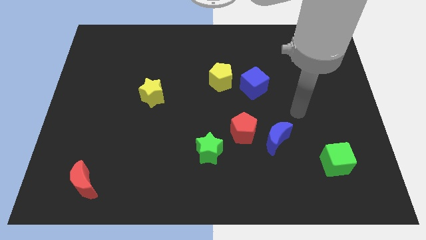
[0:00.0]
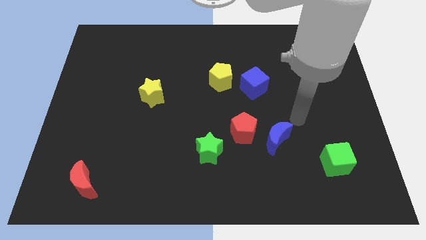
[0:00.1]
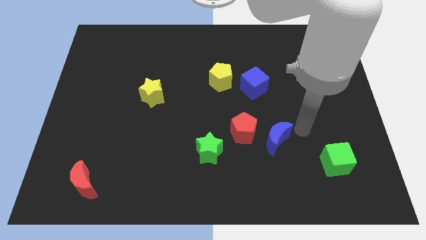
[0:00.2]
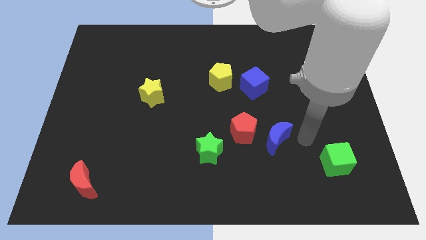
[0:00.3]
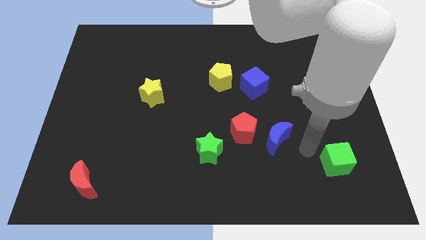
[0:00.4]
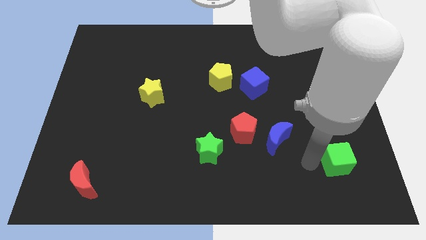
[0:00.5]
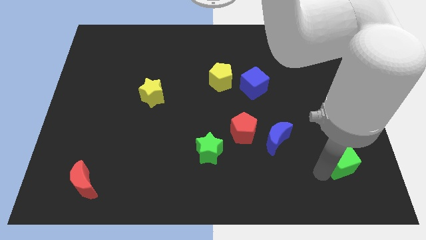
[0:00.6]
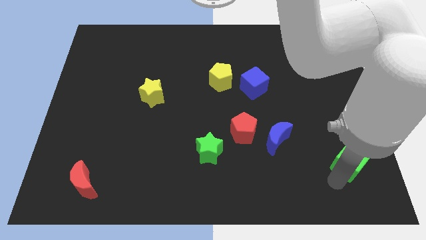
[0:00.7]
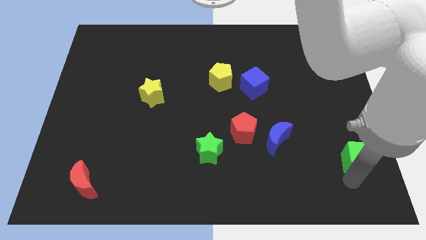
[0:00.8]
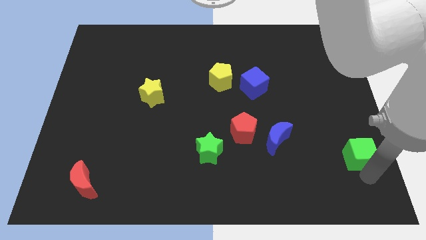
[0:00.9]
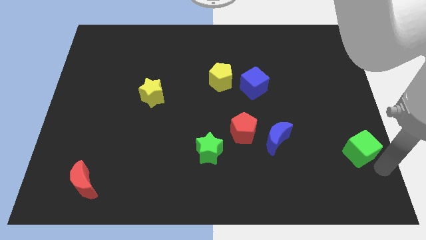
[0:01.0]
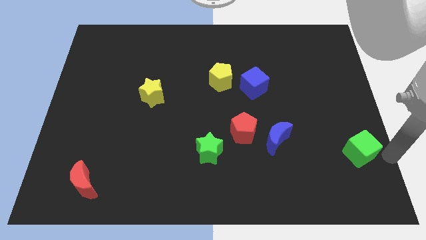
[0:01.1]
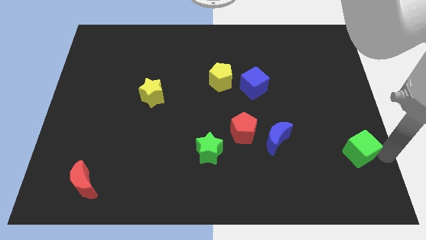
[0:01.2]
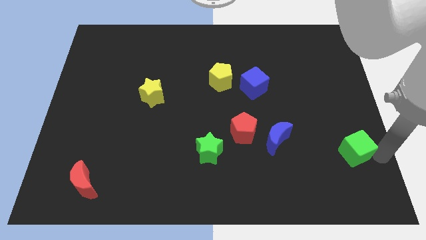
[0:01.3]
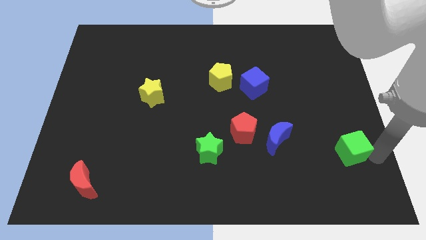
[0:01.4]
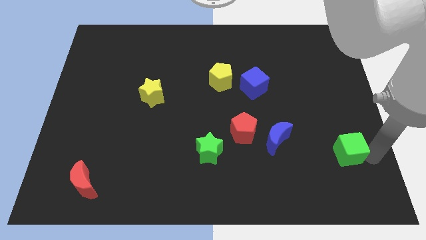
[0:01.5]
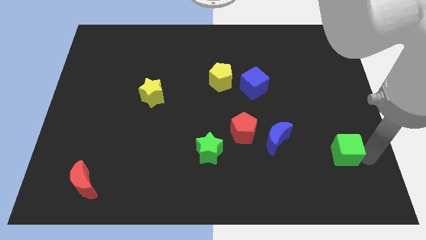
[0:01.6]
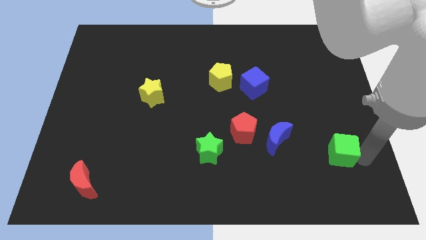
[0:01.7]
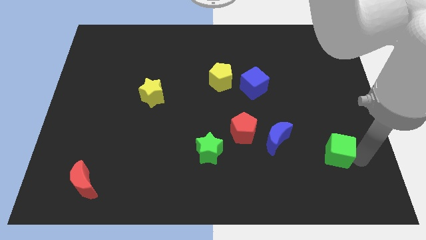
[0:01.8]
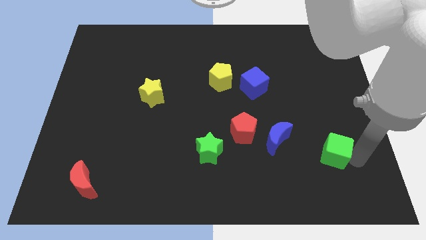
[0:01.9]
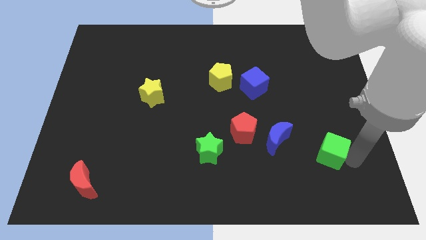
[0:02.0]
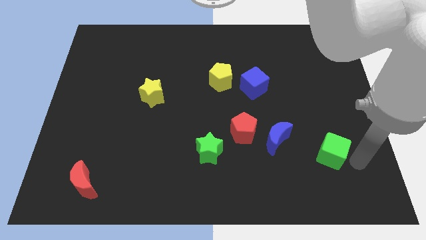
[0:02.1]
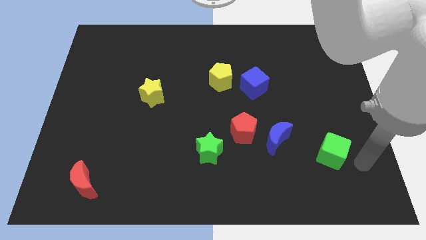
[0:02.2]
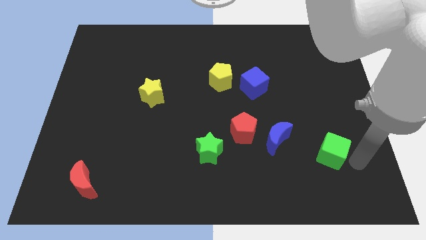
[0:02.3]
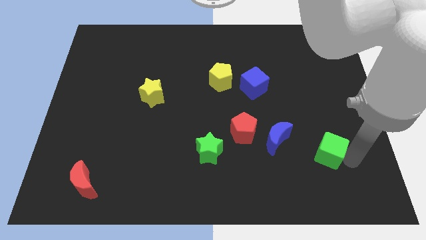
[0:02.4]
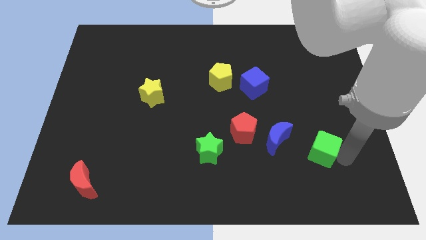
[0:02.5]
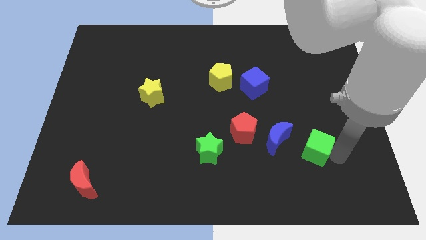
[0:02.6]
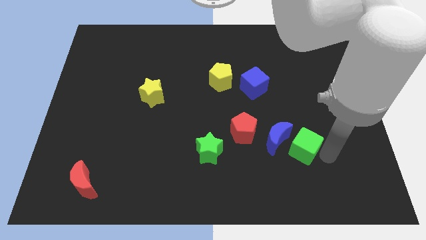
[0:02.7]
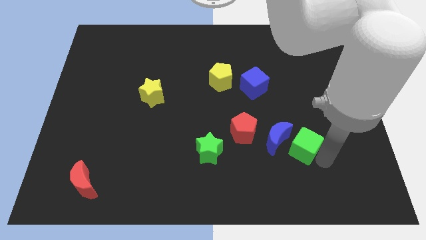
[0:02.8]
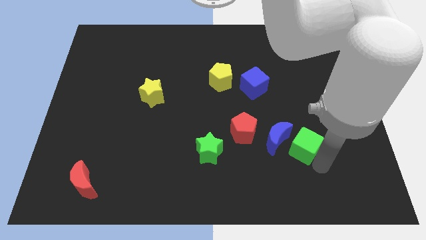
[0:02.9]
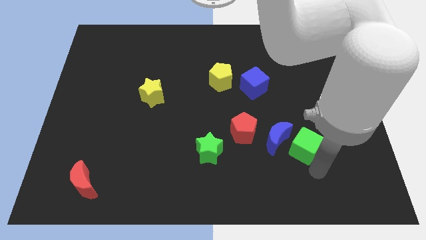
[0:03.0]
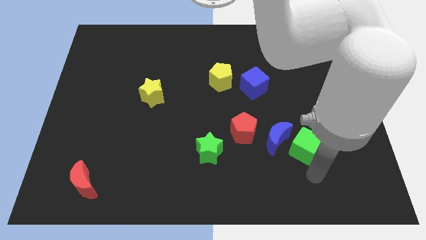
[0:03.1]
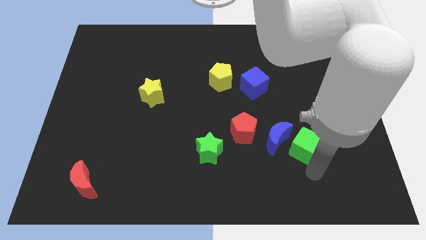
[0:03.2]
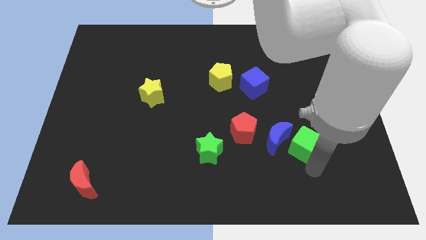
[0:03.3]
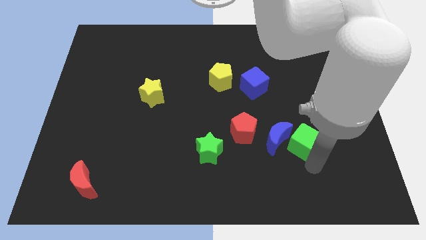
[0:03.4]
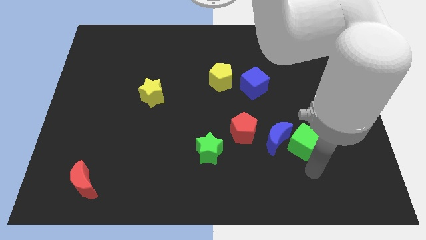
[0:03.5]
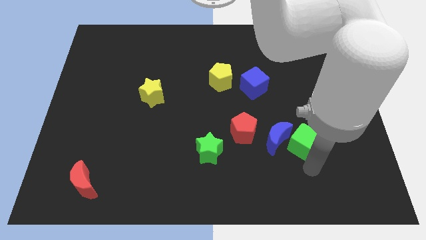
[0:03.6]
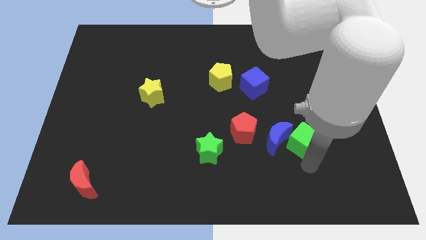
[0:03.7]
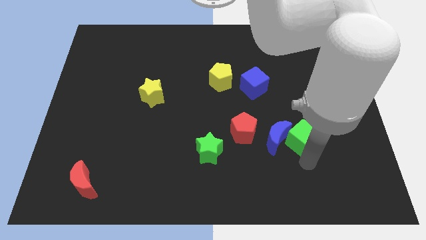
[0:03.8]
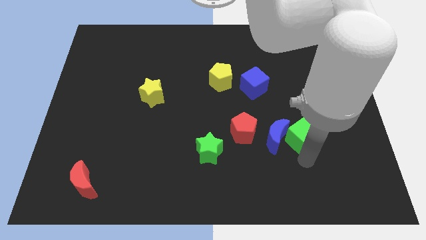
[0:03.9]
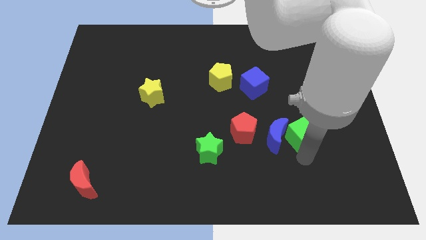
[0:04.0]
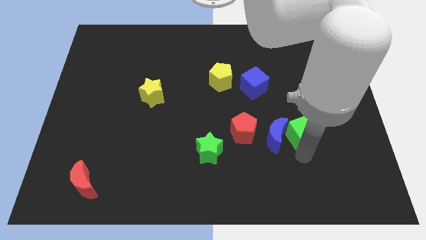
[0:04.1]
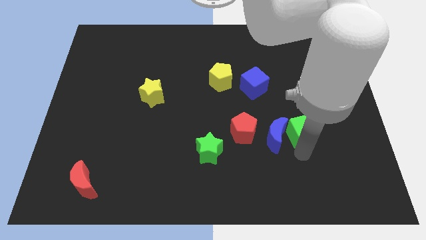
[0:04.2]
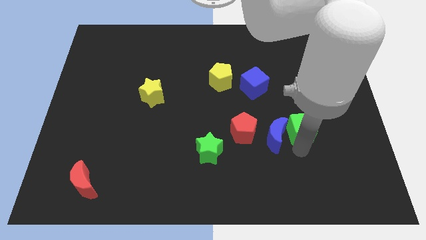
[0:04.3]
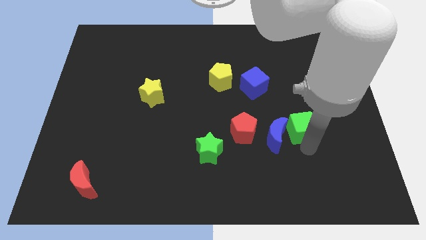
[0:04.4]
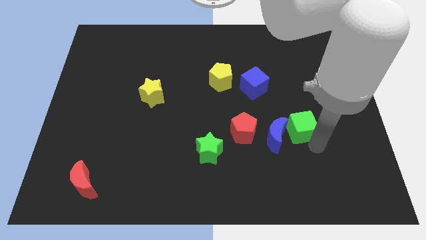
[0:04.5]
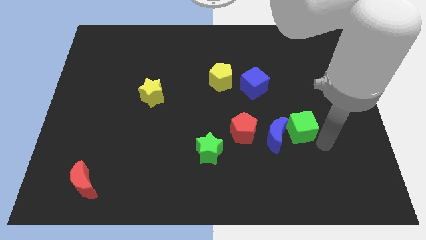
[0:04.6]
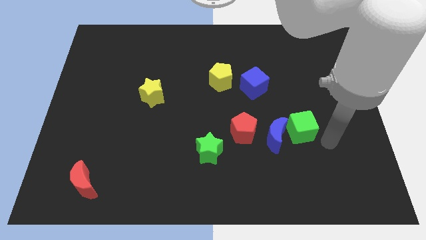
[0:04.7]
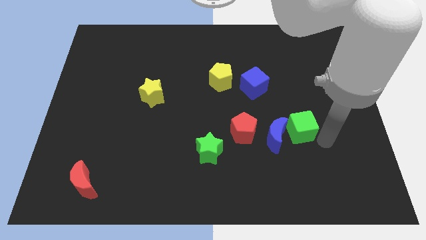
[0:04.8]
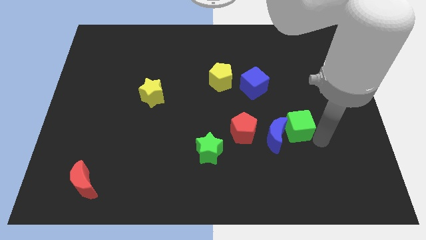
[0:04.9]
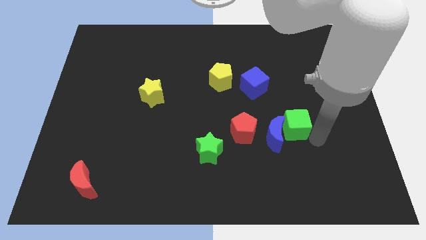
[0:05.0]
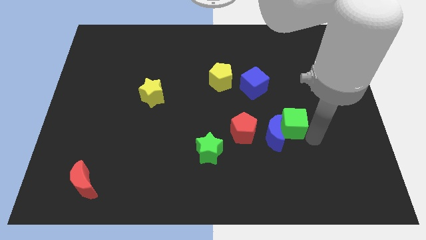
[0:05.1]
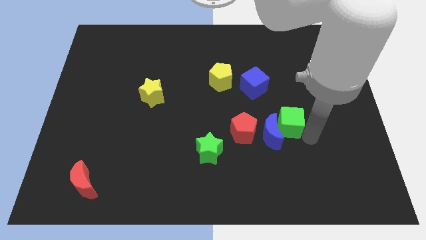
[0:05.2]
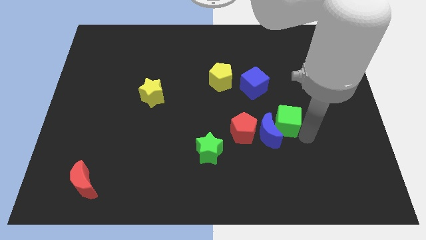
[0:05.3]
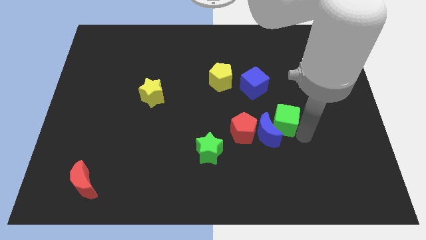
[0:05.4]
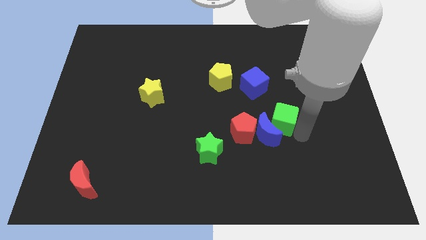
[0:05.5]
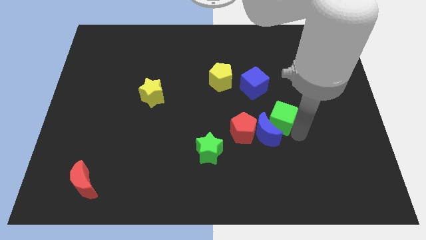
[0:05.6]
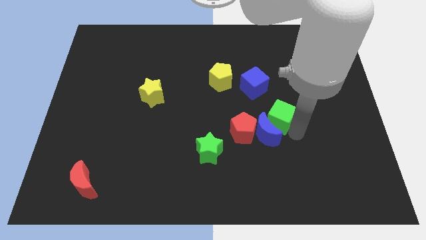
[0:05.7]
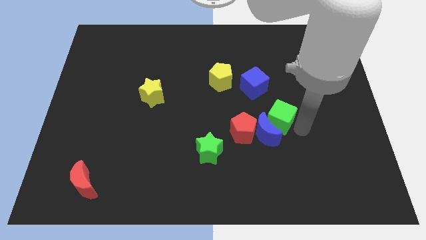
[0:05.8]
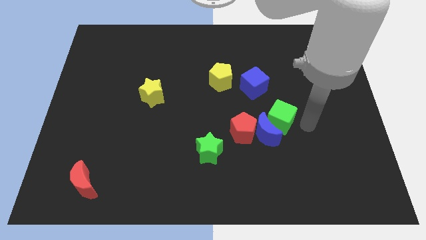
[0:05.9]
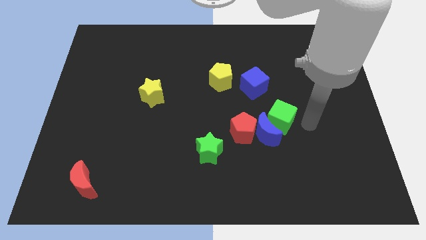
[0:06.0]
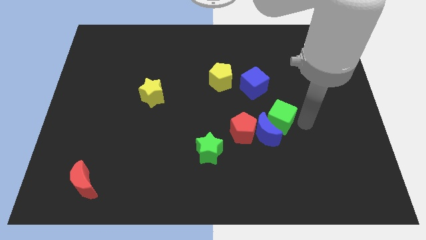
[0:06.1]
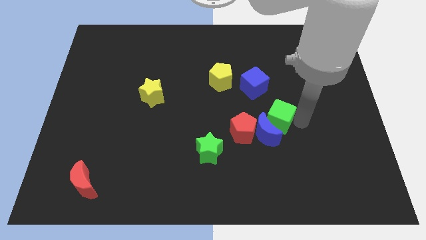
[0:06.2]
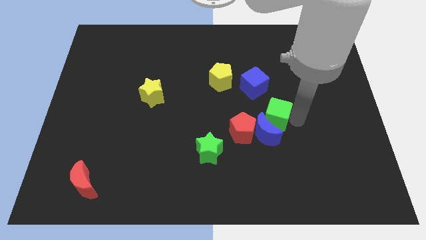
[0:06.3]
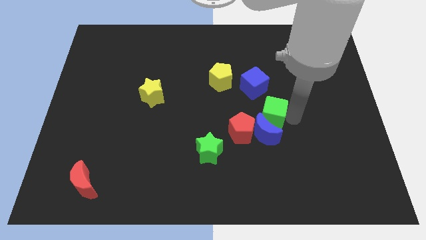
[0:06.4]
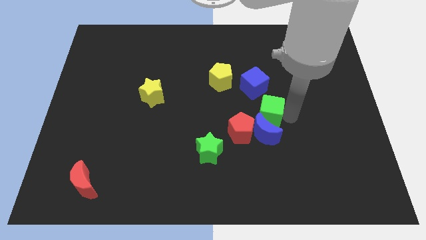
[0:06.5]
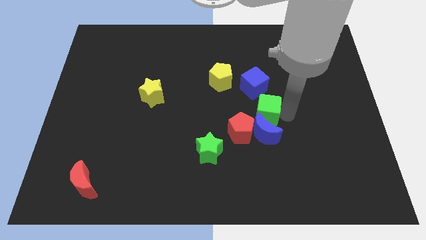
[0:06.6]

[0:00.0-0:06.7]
push the green cube diagonally up and to the left of the blue moon

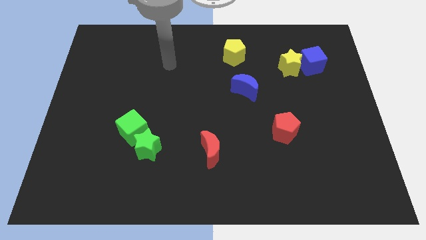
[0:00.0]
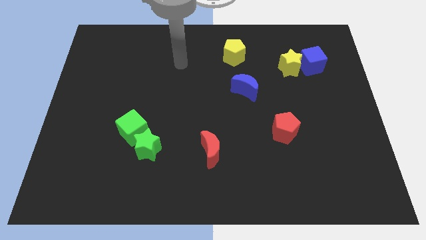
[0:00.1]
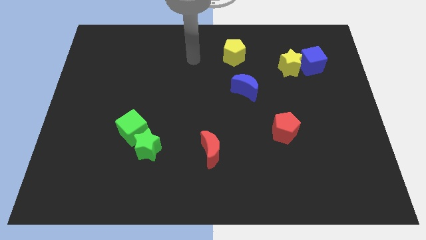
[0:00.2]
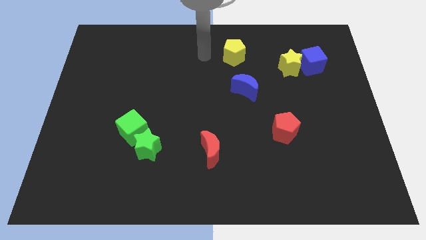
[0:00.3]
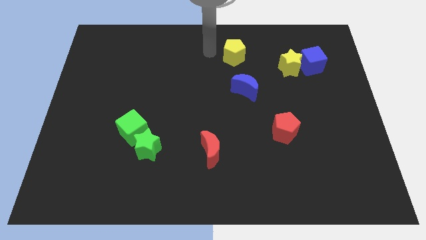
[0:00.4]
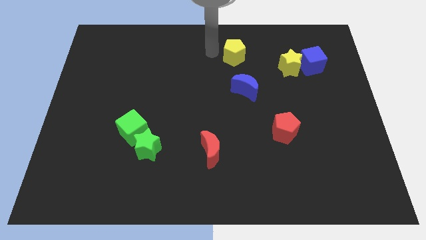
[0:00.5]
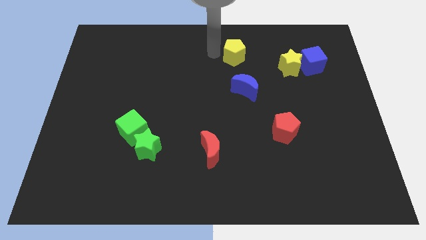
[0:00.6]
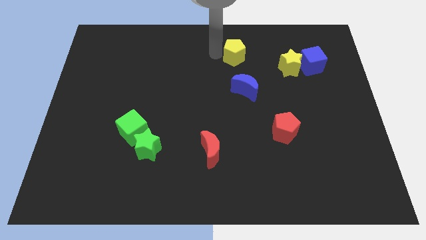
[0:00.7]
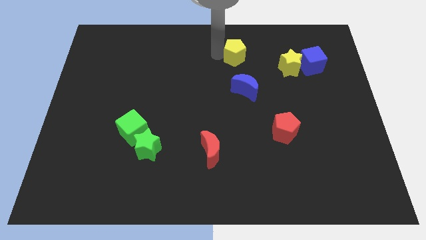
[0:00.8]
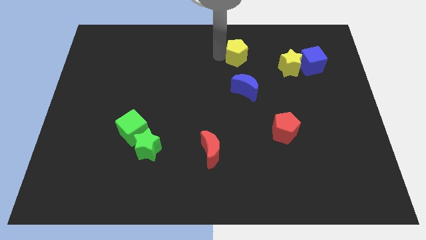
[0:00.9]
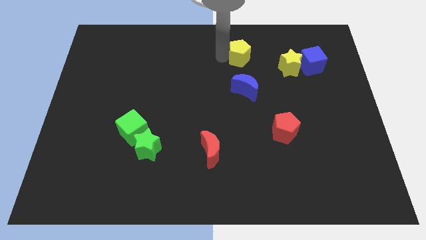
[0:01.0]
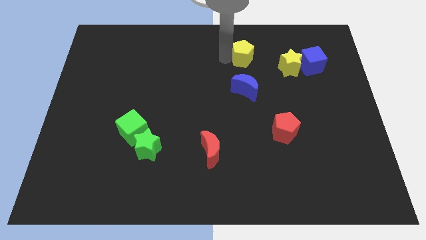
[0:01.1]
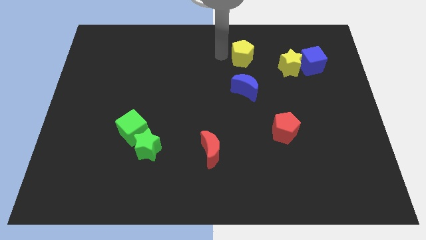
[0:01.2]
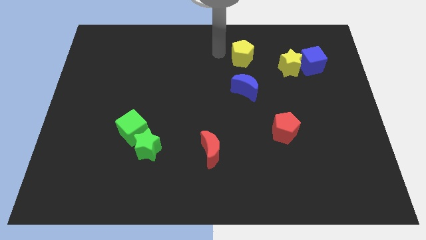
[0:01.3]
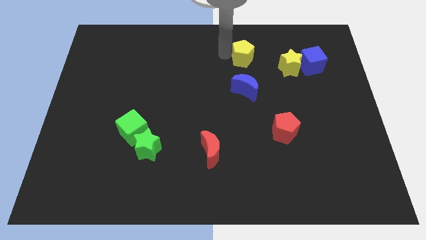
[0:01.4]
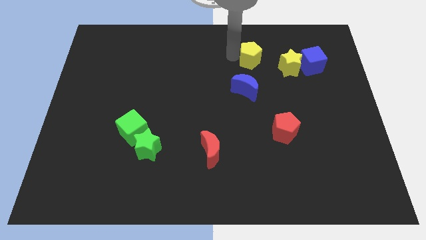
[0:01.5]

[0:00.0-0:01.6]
move the yellow pentagon to the left of the blue cube
